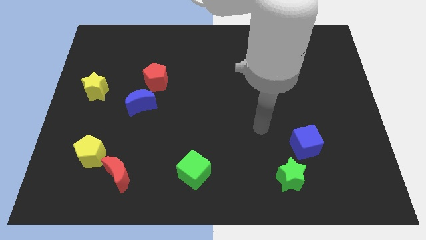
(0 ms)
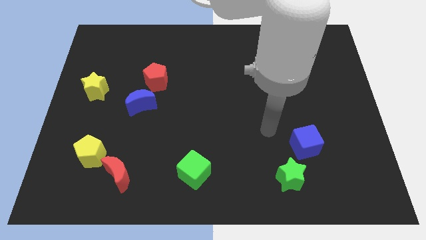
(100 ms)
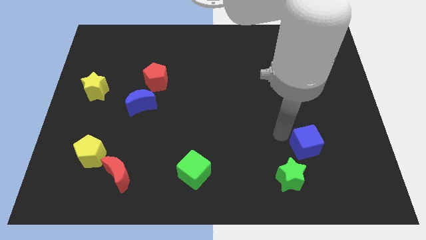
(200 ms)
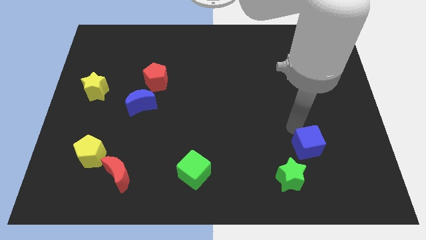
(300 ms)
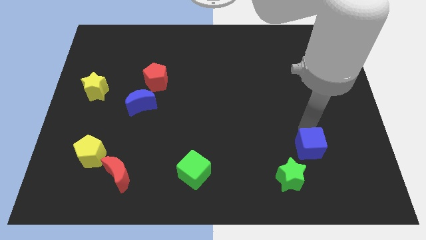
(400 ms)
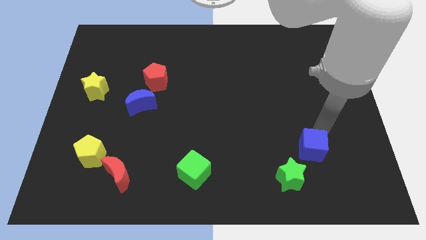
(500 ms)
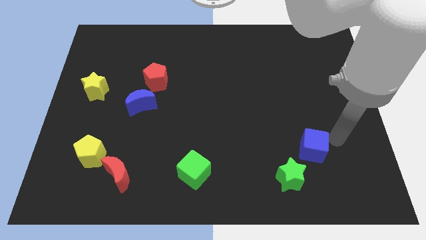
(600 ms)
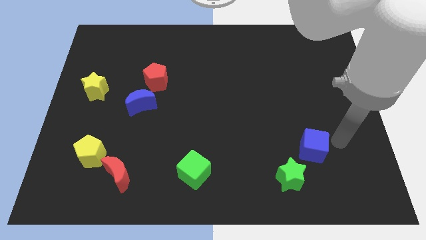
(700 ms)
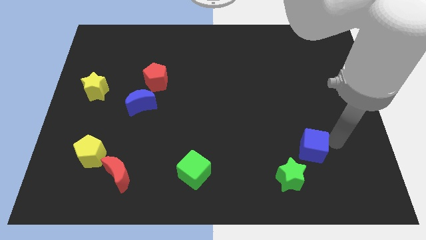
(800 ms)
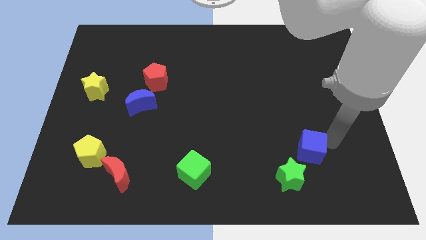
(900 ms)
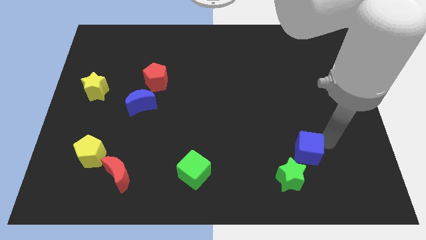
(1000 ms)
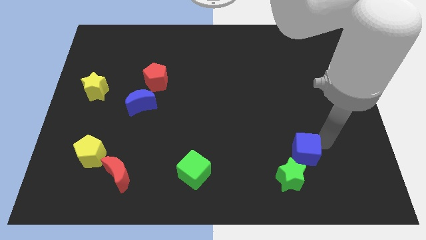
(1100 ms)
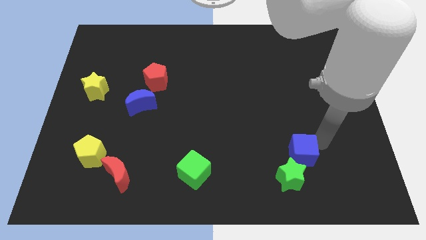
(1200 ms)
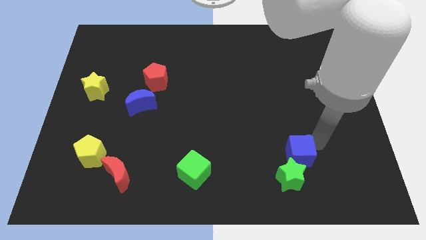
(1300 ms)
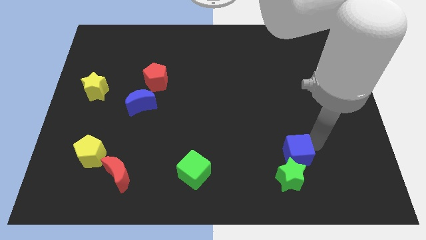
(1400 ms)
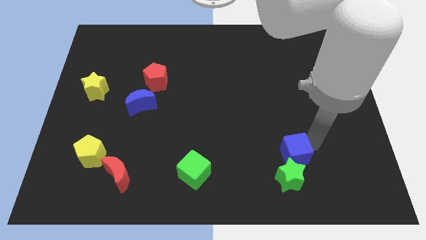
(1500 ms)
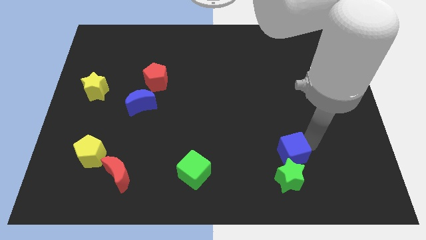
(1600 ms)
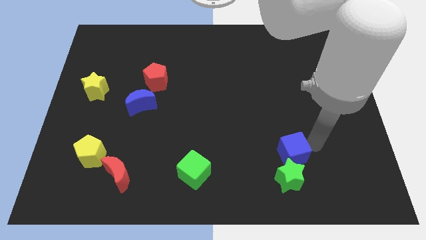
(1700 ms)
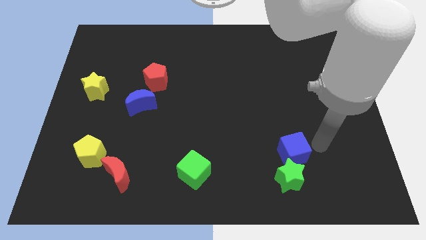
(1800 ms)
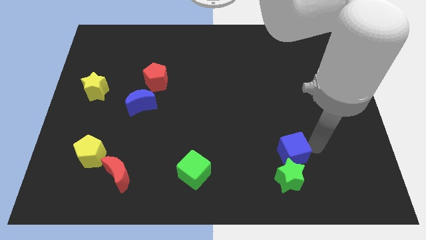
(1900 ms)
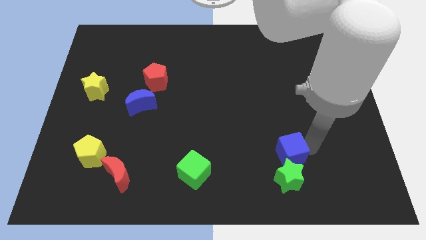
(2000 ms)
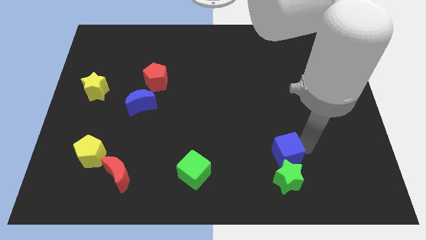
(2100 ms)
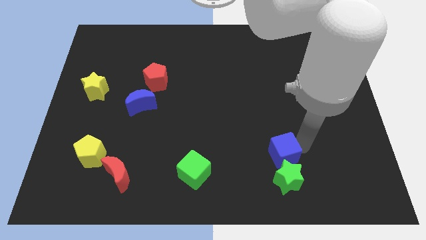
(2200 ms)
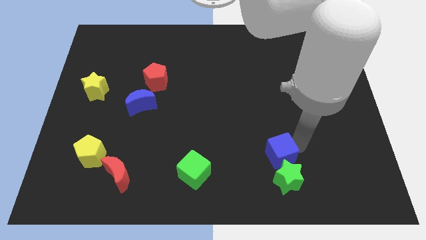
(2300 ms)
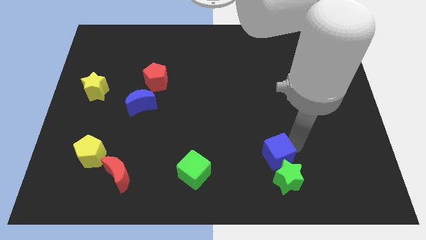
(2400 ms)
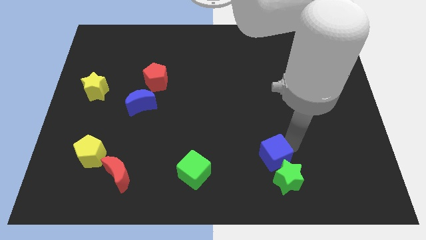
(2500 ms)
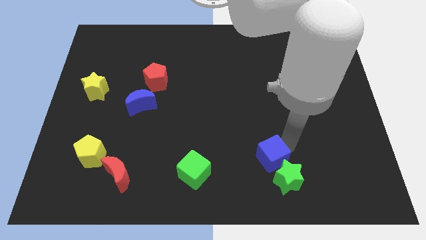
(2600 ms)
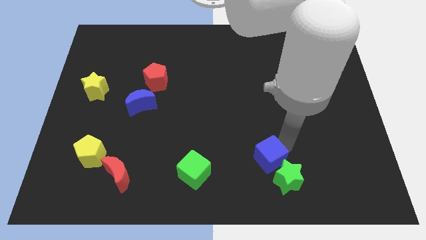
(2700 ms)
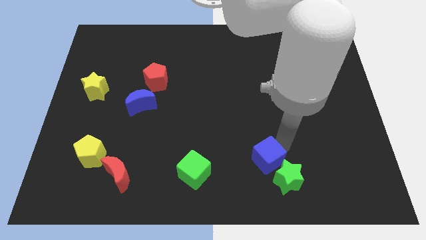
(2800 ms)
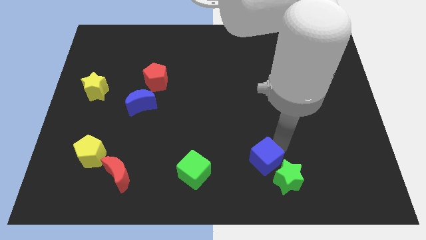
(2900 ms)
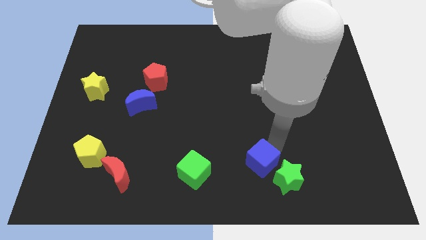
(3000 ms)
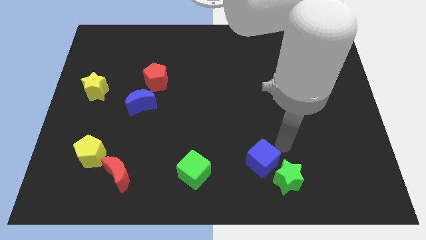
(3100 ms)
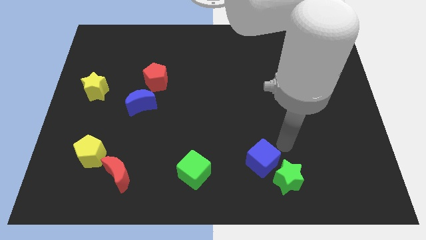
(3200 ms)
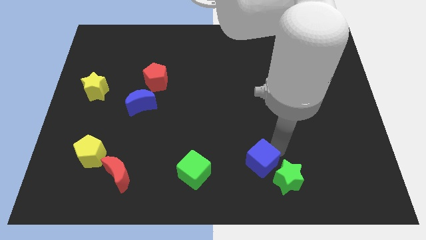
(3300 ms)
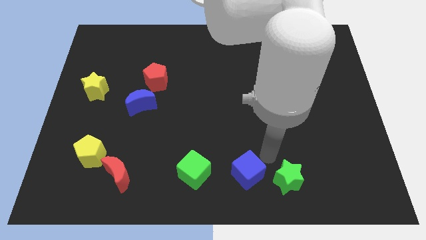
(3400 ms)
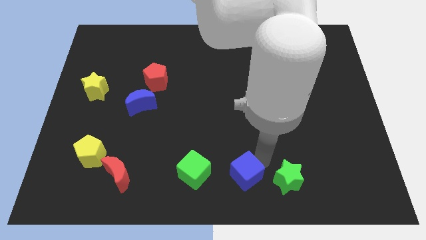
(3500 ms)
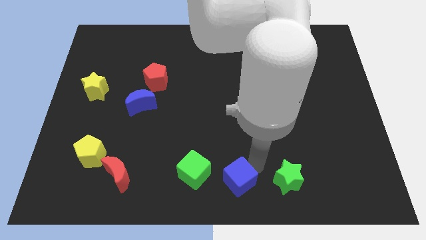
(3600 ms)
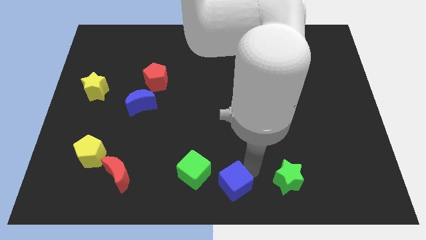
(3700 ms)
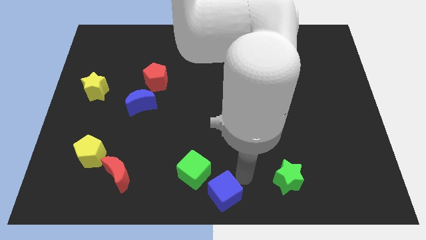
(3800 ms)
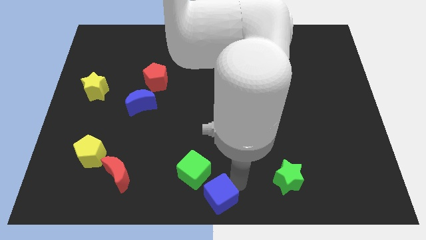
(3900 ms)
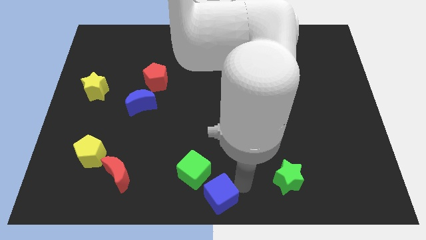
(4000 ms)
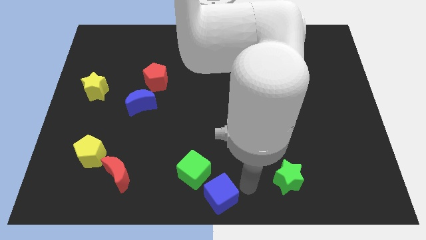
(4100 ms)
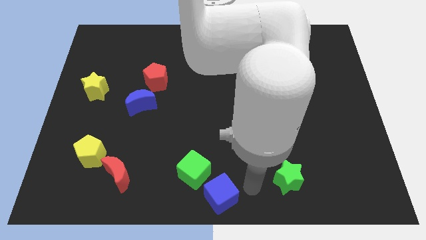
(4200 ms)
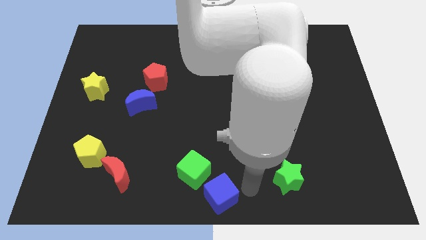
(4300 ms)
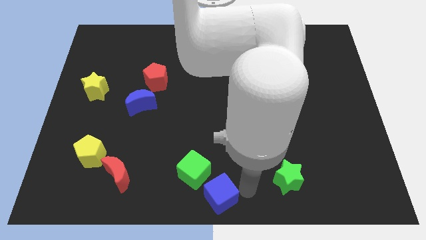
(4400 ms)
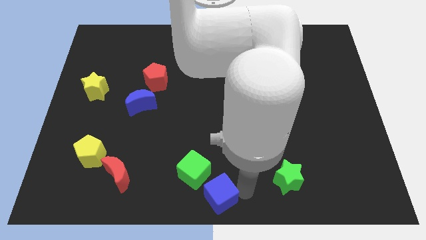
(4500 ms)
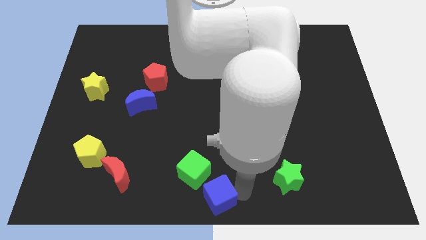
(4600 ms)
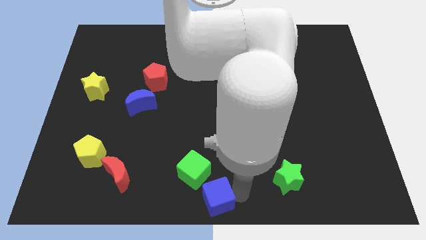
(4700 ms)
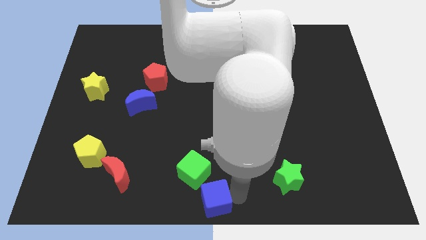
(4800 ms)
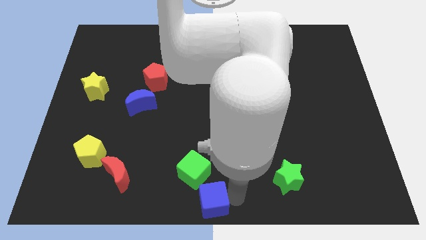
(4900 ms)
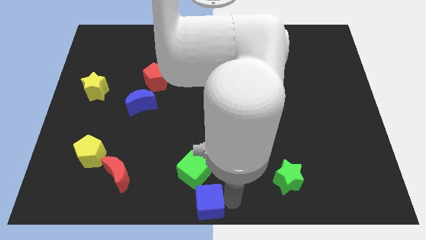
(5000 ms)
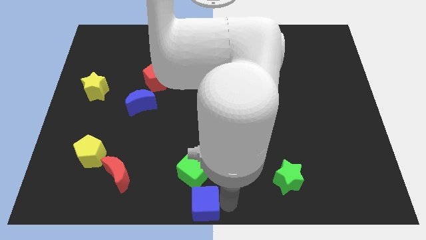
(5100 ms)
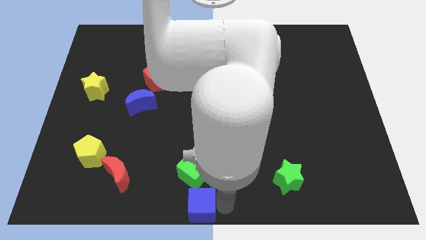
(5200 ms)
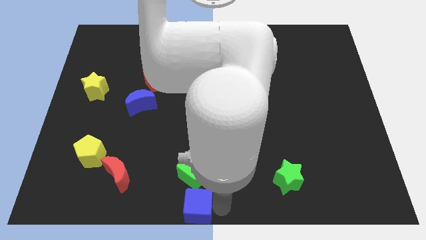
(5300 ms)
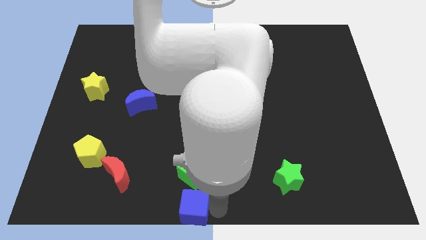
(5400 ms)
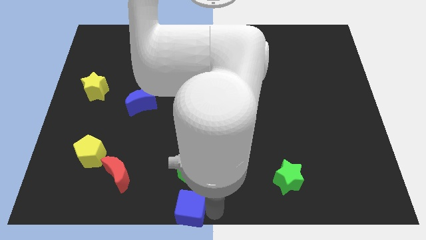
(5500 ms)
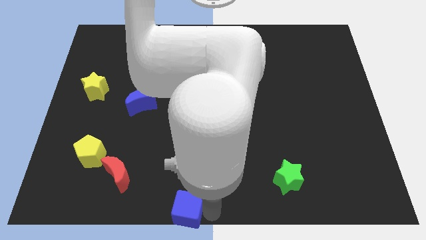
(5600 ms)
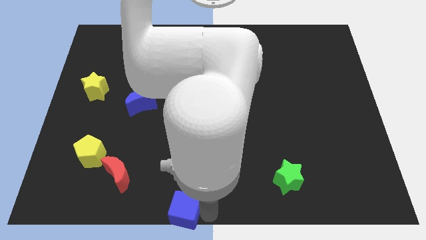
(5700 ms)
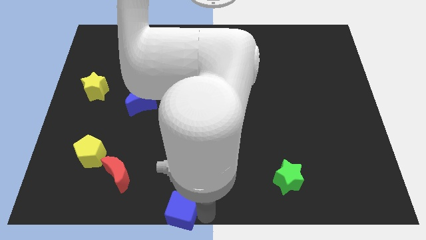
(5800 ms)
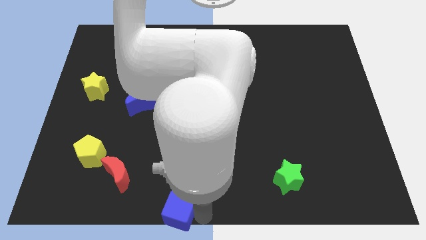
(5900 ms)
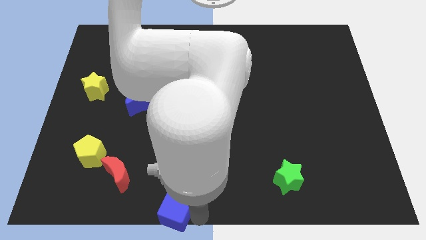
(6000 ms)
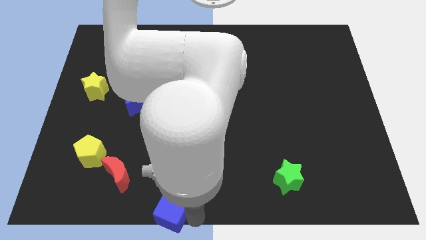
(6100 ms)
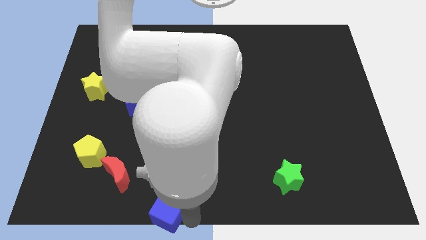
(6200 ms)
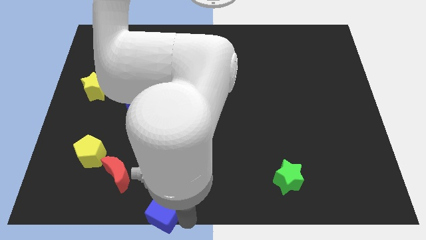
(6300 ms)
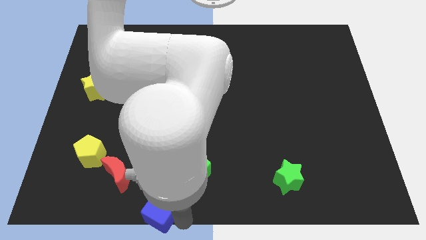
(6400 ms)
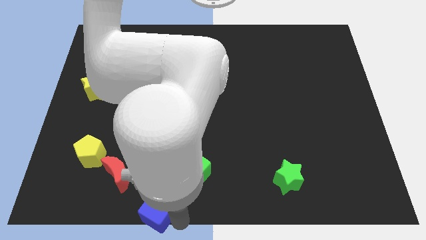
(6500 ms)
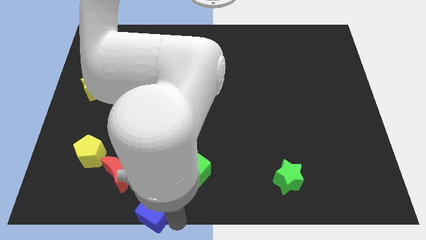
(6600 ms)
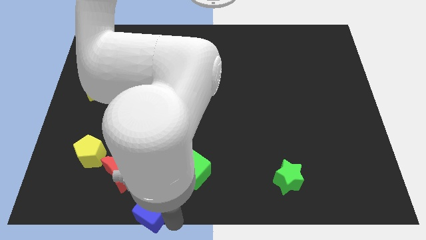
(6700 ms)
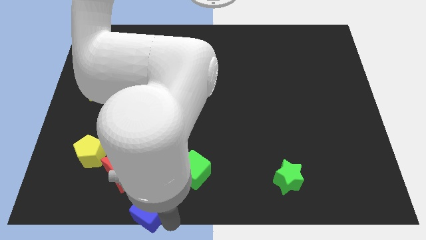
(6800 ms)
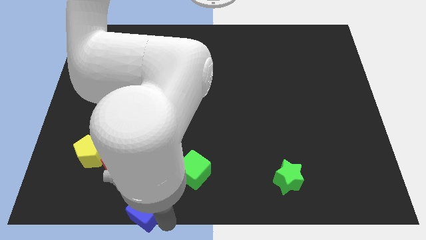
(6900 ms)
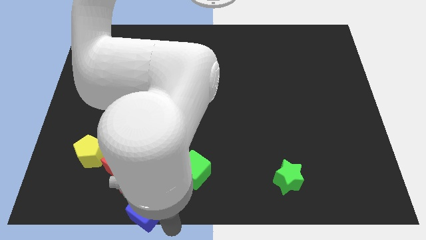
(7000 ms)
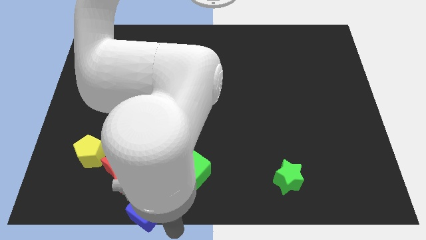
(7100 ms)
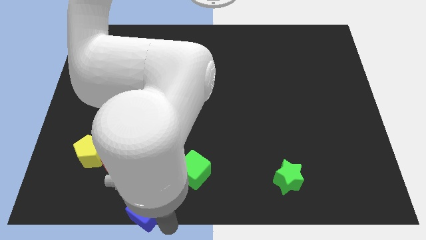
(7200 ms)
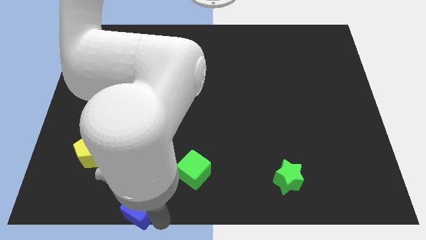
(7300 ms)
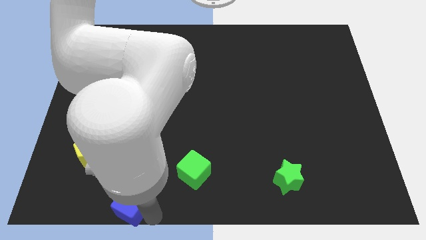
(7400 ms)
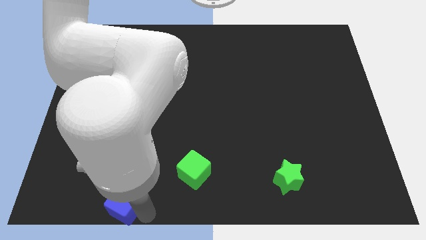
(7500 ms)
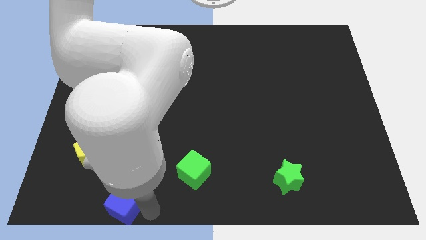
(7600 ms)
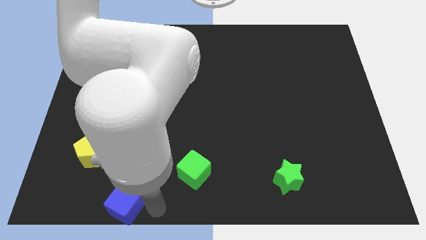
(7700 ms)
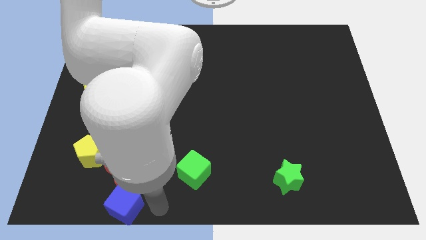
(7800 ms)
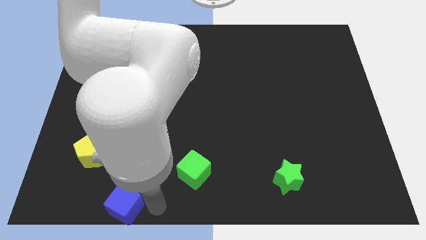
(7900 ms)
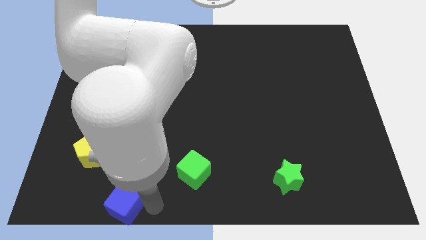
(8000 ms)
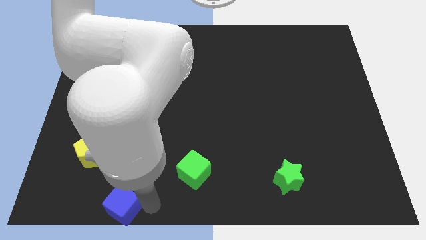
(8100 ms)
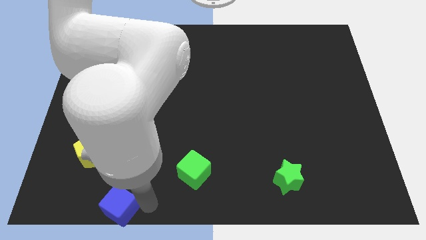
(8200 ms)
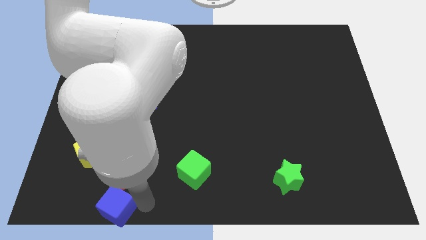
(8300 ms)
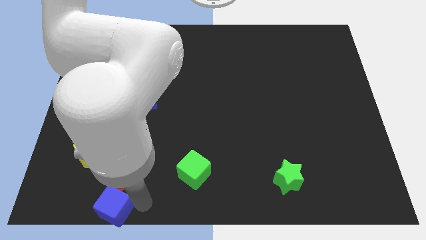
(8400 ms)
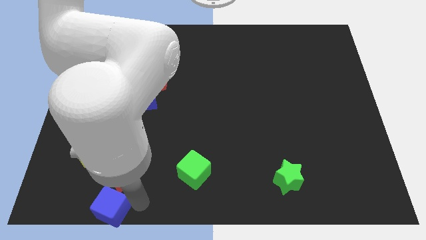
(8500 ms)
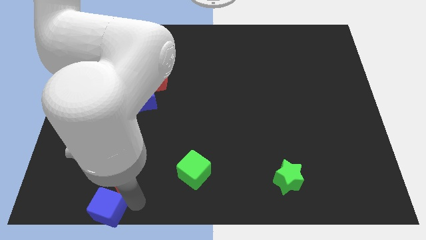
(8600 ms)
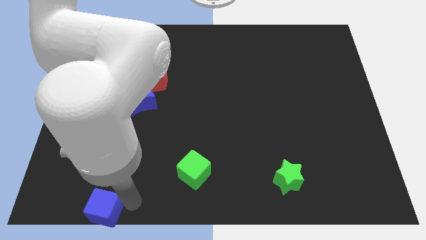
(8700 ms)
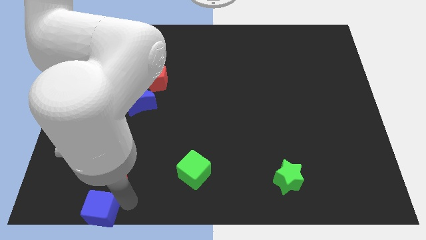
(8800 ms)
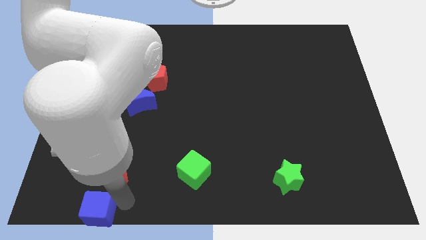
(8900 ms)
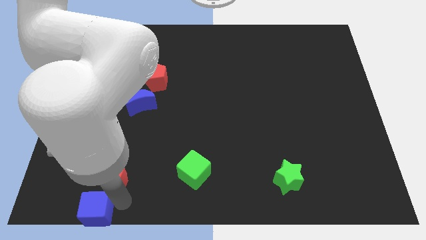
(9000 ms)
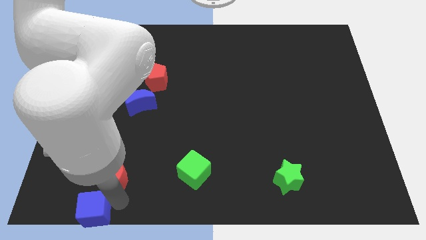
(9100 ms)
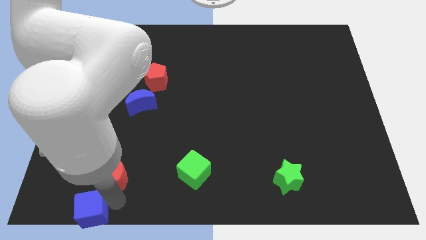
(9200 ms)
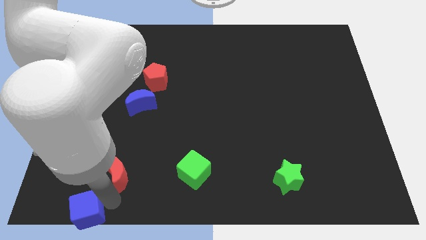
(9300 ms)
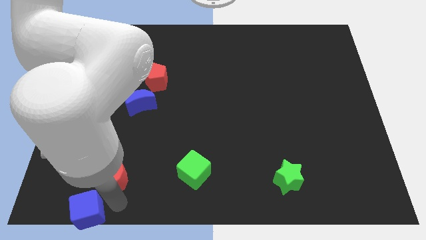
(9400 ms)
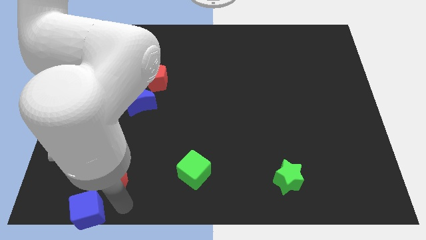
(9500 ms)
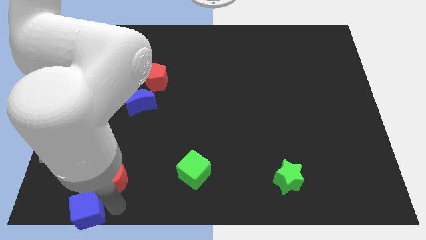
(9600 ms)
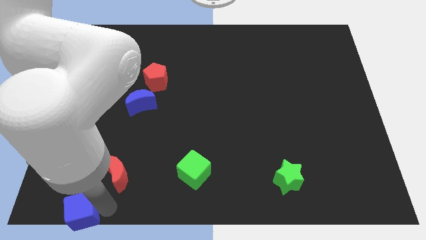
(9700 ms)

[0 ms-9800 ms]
slide the blue cube to the bottom left corner
